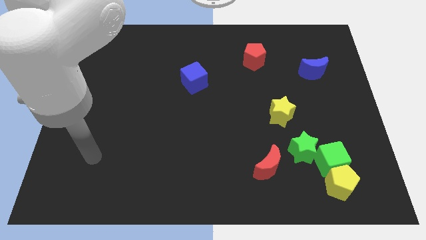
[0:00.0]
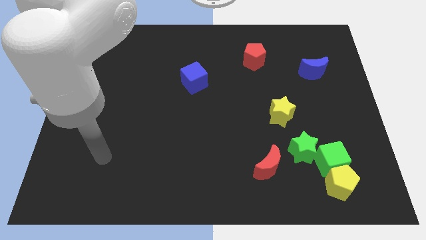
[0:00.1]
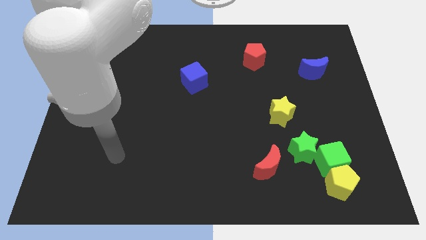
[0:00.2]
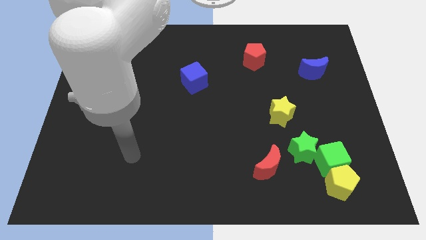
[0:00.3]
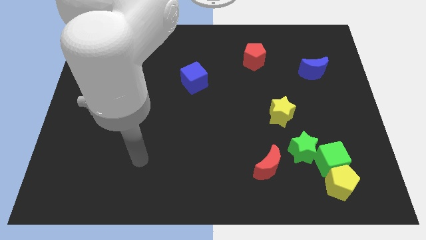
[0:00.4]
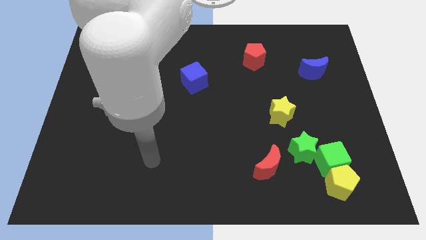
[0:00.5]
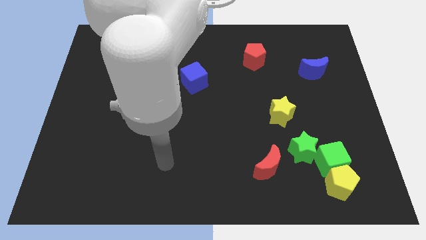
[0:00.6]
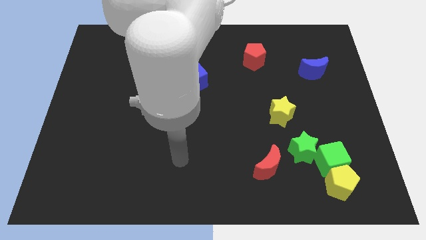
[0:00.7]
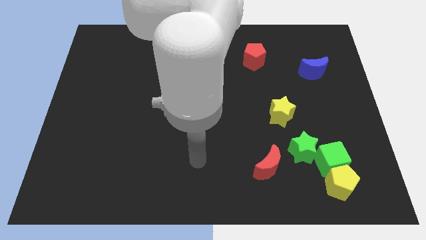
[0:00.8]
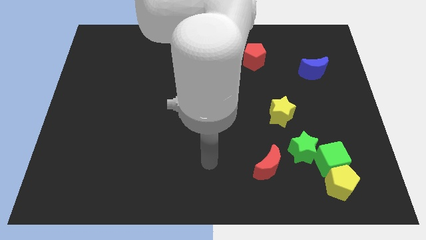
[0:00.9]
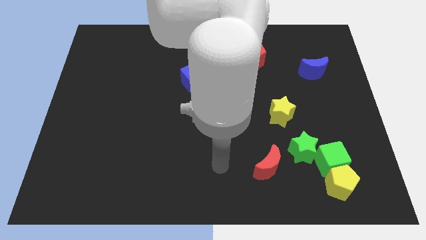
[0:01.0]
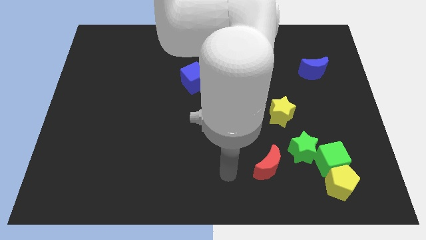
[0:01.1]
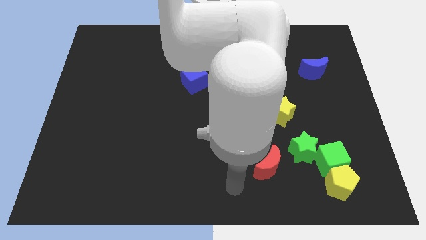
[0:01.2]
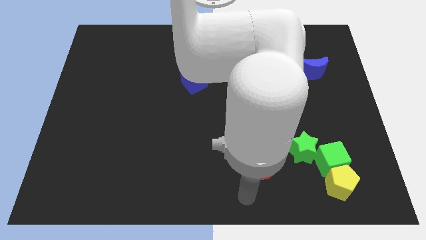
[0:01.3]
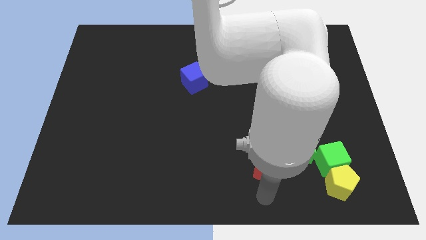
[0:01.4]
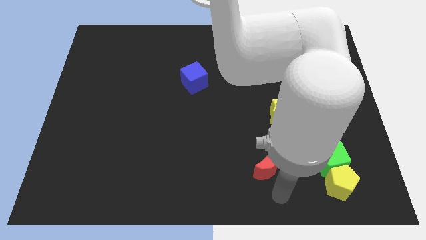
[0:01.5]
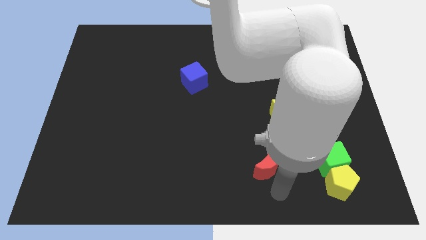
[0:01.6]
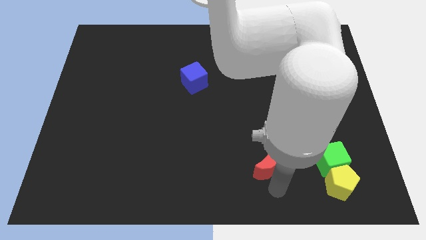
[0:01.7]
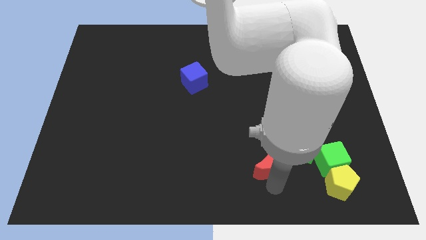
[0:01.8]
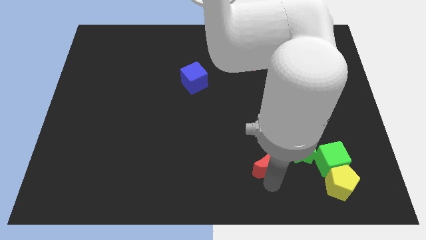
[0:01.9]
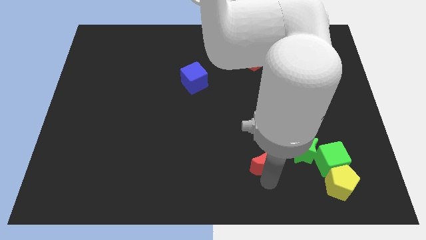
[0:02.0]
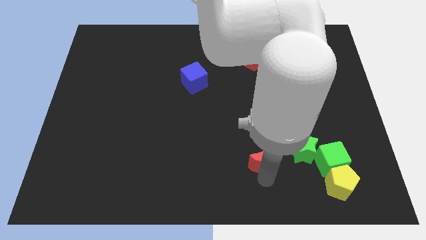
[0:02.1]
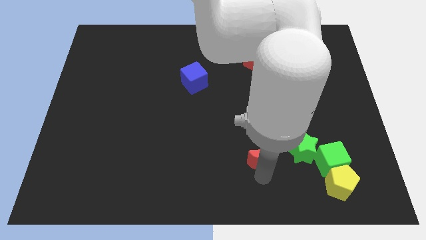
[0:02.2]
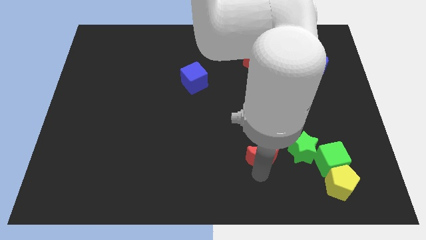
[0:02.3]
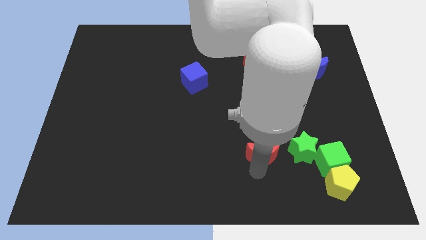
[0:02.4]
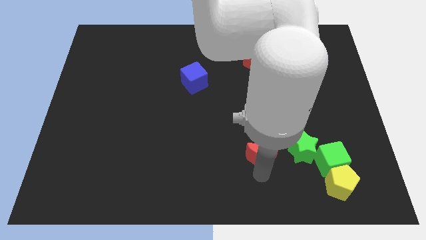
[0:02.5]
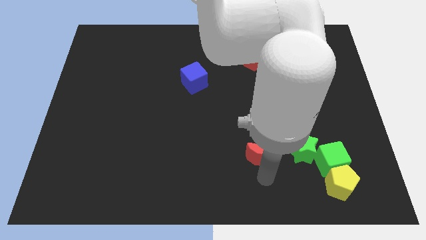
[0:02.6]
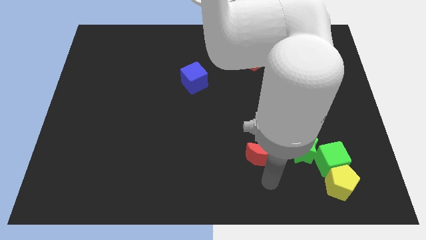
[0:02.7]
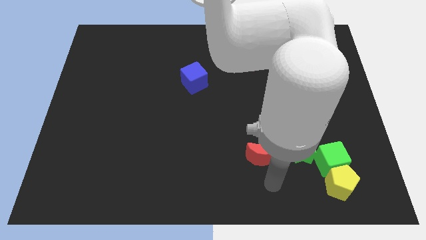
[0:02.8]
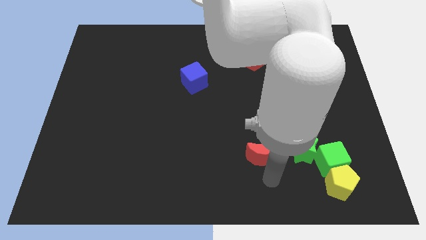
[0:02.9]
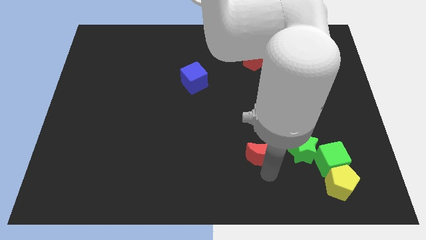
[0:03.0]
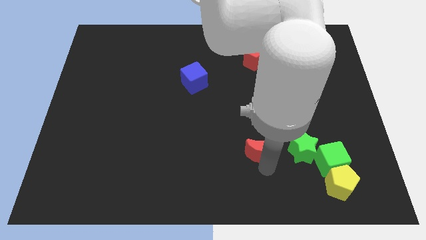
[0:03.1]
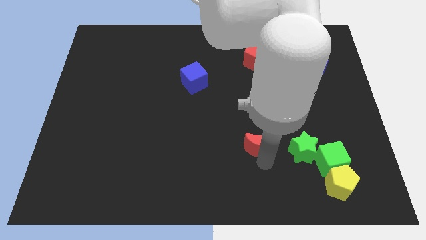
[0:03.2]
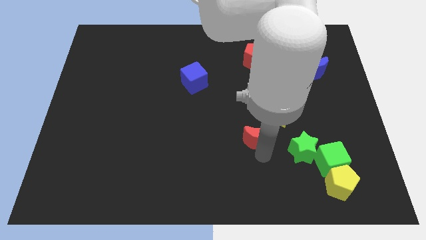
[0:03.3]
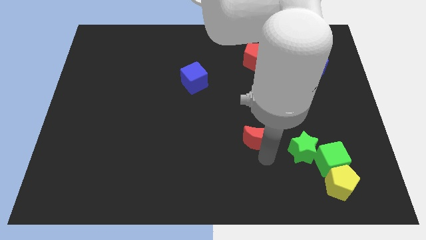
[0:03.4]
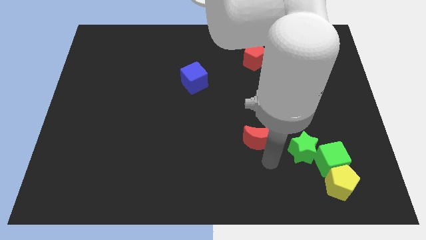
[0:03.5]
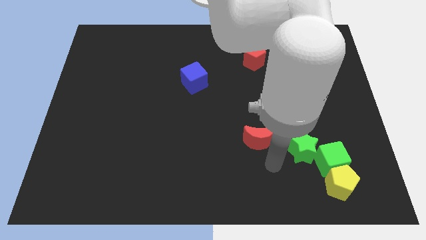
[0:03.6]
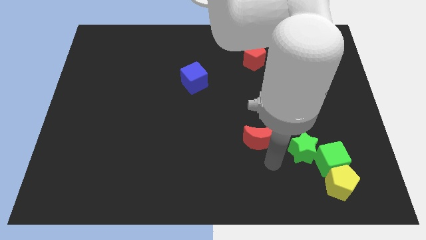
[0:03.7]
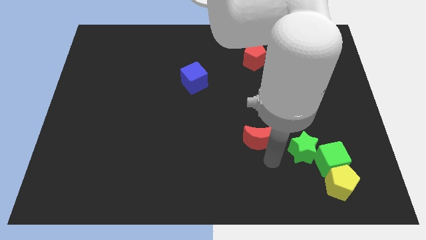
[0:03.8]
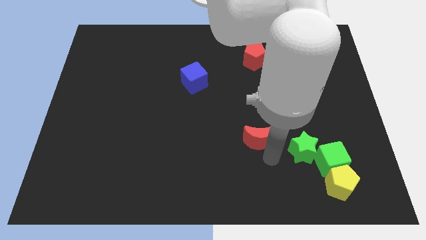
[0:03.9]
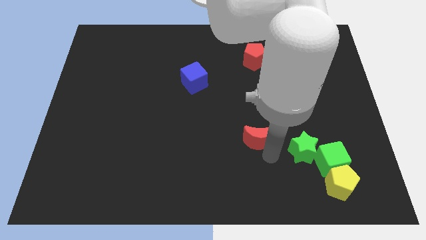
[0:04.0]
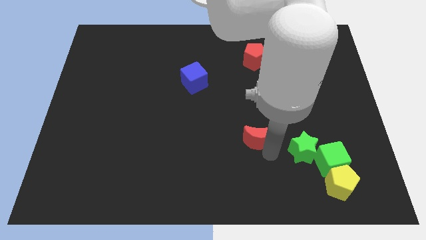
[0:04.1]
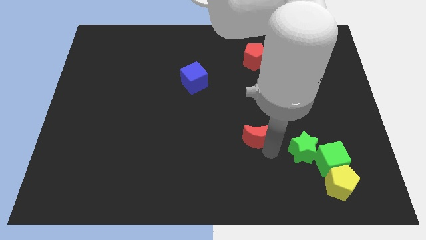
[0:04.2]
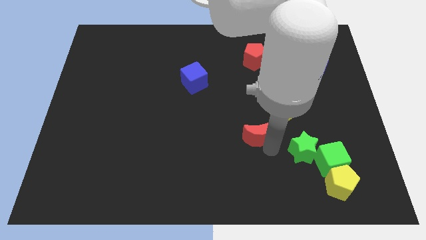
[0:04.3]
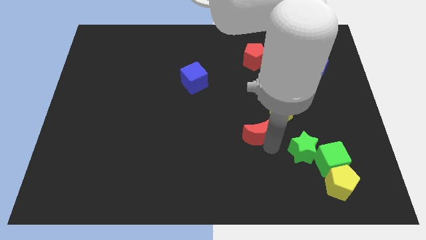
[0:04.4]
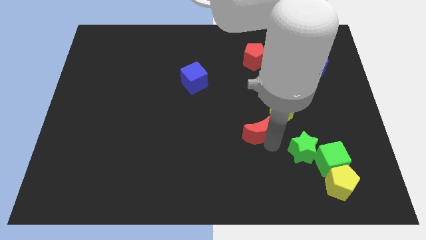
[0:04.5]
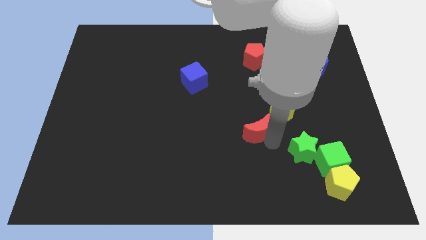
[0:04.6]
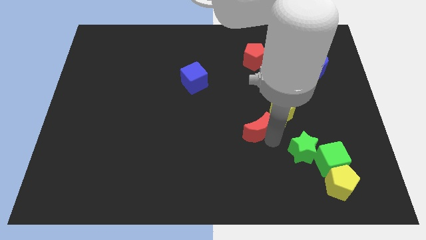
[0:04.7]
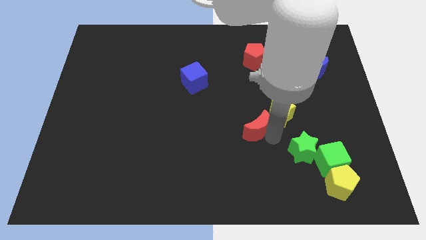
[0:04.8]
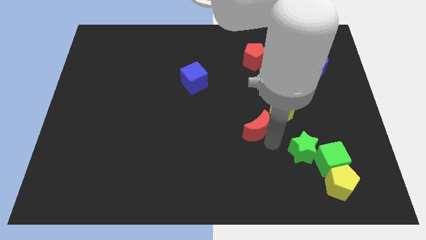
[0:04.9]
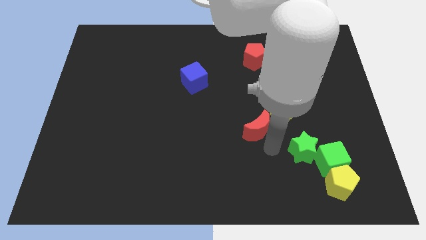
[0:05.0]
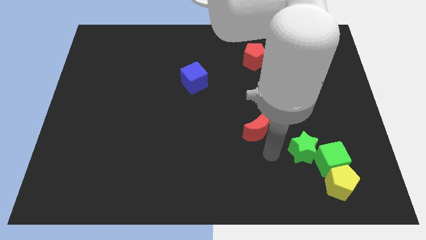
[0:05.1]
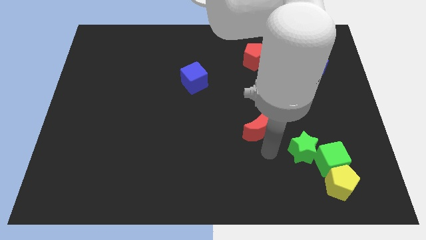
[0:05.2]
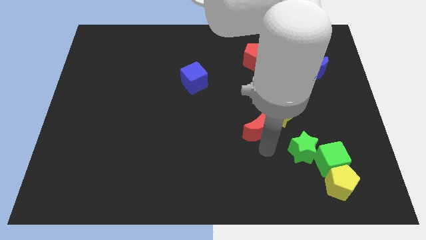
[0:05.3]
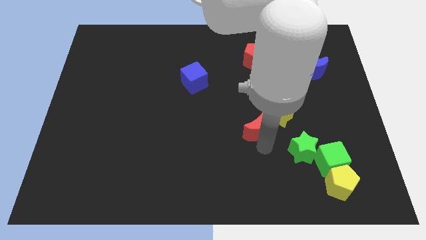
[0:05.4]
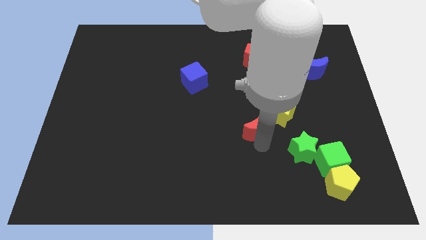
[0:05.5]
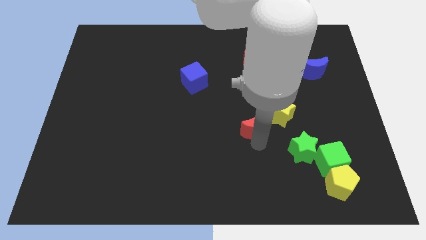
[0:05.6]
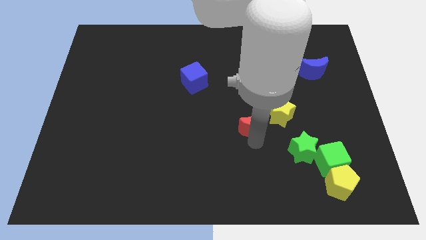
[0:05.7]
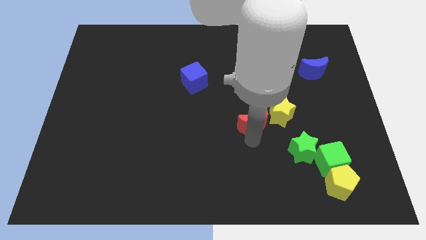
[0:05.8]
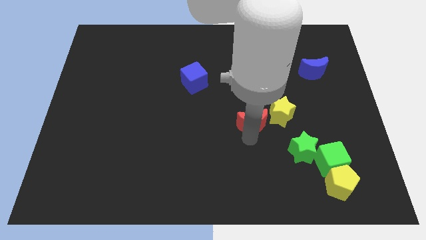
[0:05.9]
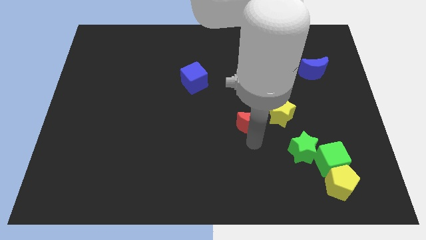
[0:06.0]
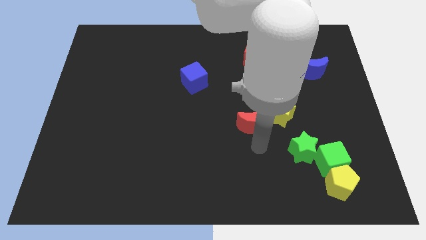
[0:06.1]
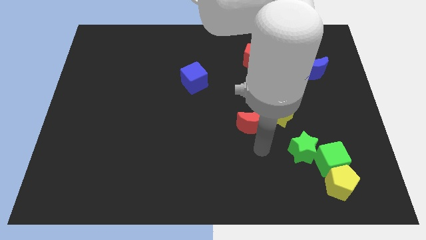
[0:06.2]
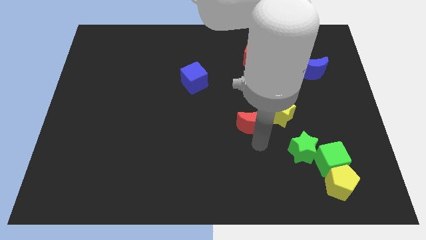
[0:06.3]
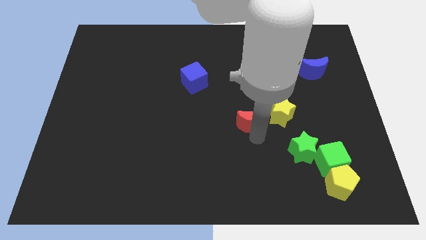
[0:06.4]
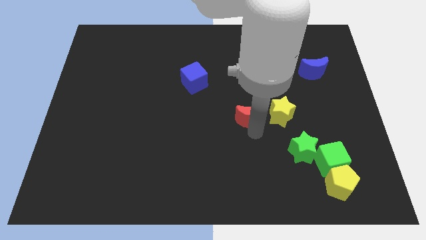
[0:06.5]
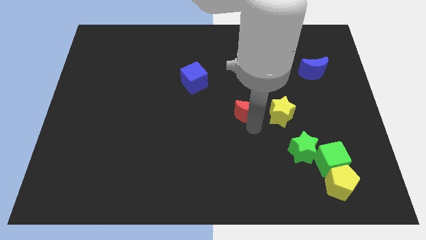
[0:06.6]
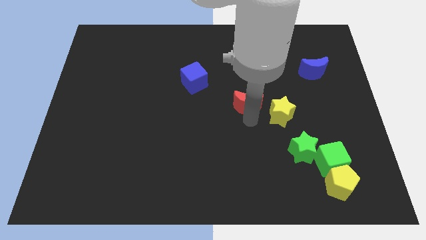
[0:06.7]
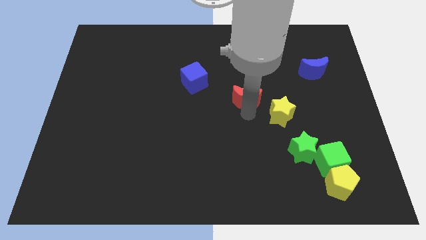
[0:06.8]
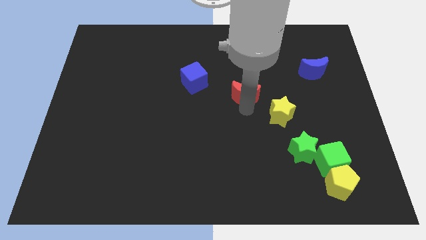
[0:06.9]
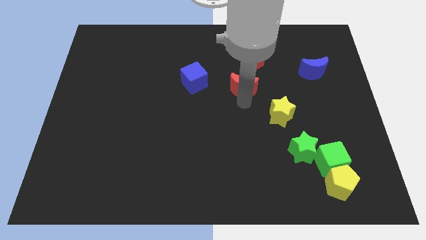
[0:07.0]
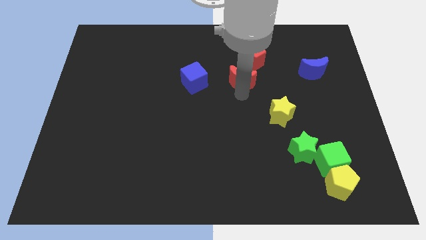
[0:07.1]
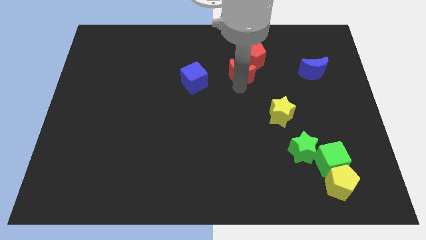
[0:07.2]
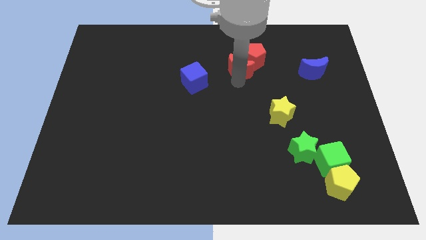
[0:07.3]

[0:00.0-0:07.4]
move the red moon to the red pentagon
